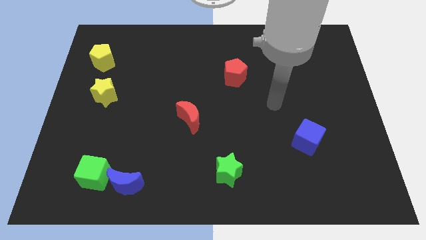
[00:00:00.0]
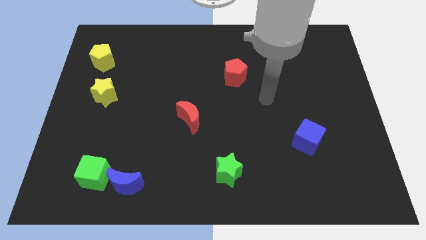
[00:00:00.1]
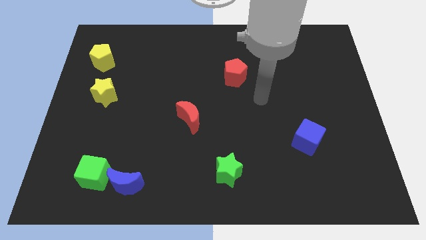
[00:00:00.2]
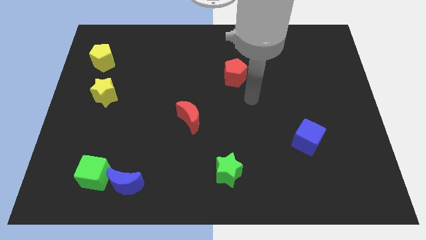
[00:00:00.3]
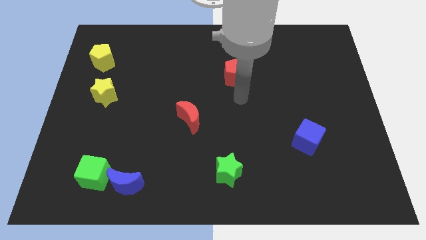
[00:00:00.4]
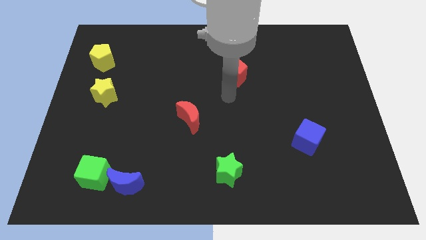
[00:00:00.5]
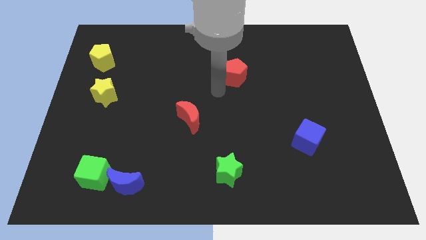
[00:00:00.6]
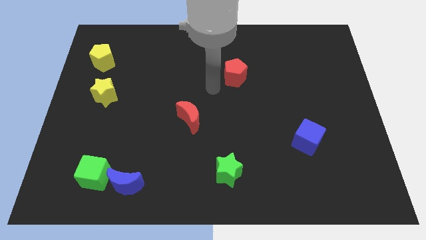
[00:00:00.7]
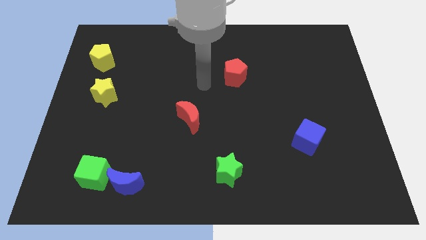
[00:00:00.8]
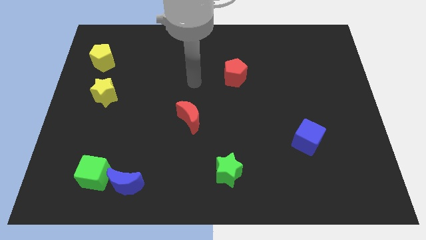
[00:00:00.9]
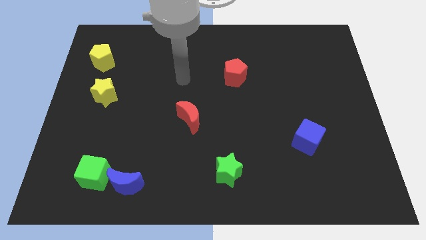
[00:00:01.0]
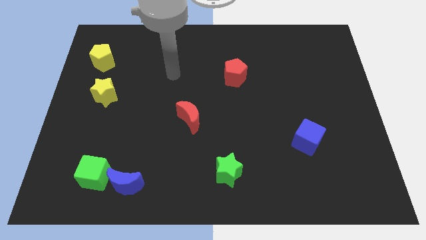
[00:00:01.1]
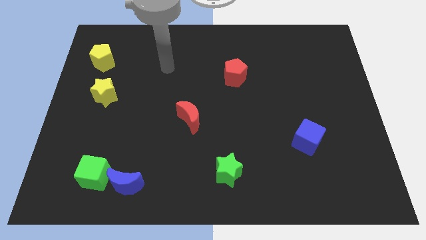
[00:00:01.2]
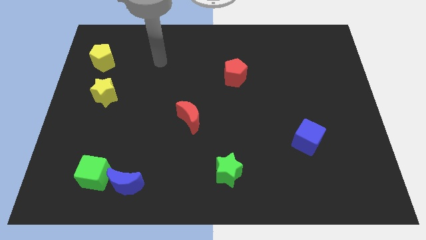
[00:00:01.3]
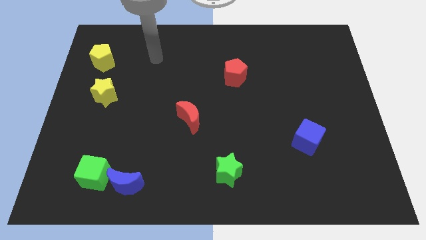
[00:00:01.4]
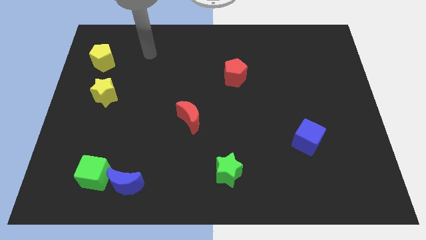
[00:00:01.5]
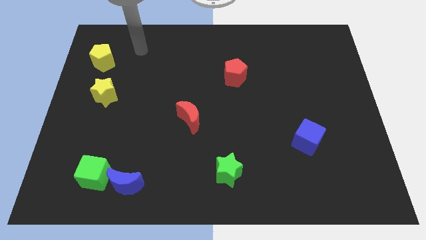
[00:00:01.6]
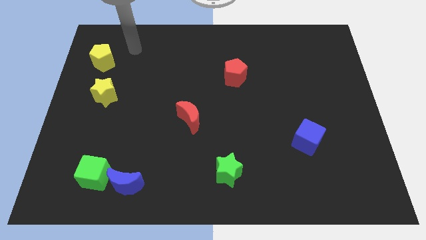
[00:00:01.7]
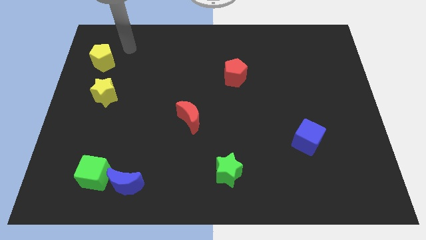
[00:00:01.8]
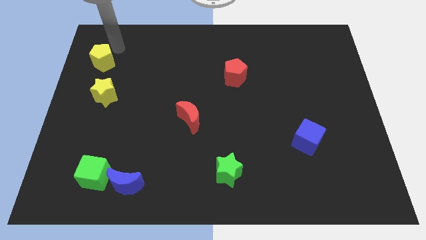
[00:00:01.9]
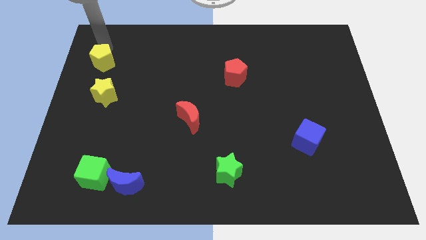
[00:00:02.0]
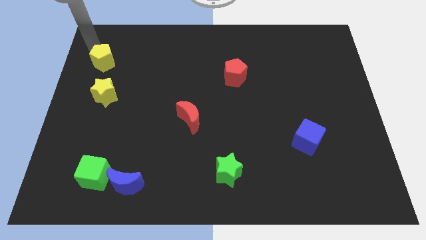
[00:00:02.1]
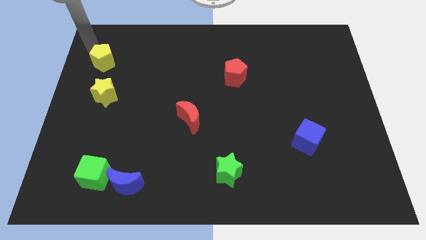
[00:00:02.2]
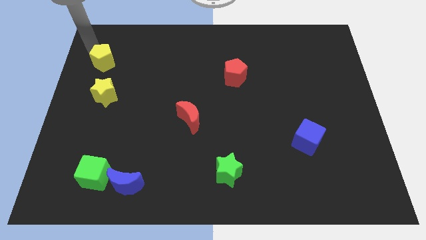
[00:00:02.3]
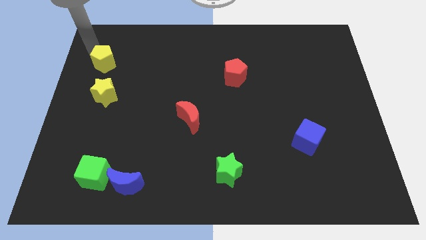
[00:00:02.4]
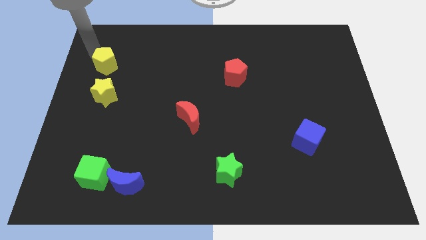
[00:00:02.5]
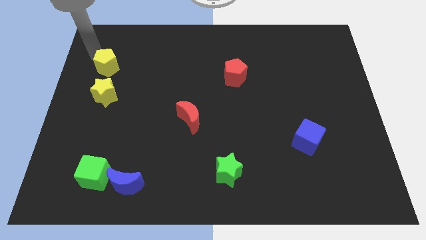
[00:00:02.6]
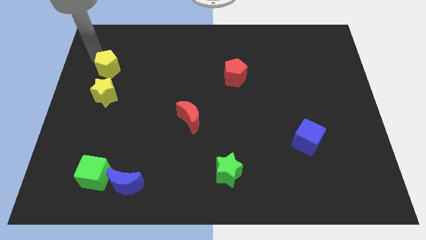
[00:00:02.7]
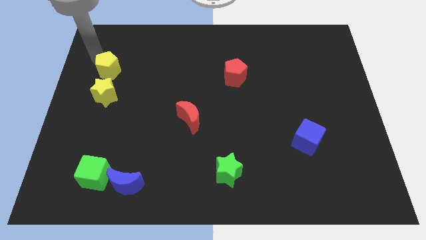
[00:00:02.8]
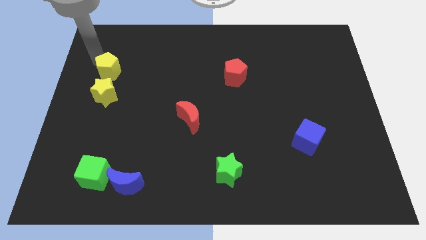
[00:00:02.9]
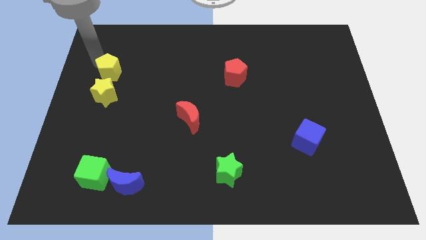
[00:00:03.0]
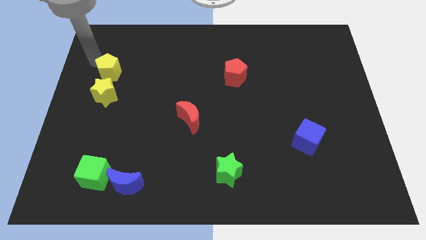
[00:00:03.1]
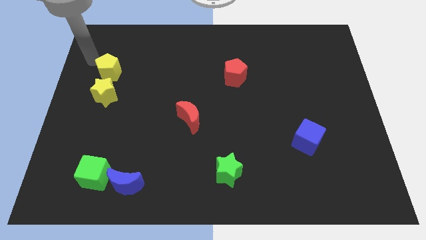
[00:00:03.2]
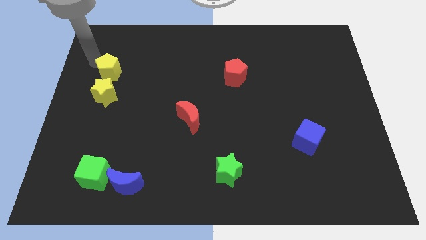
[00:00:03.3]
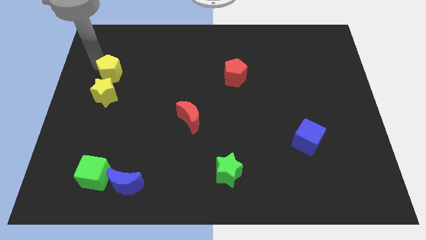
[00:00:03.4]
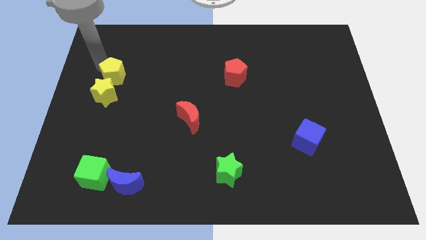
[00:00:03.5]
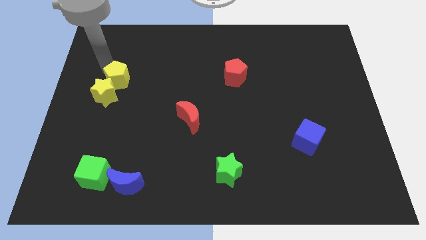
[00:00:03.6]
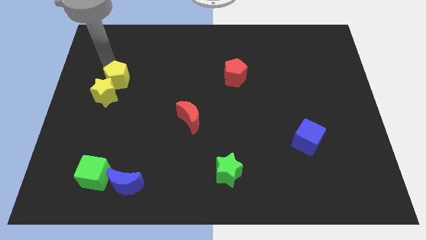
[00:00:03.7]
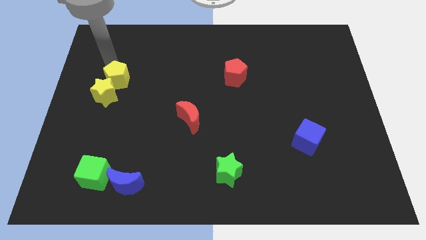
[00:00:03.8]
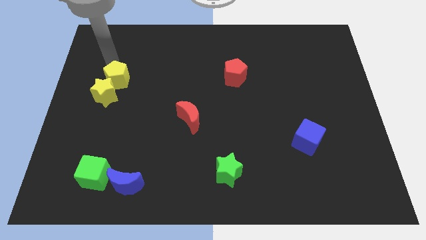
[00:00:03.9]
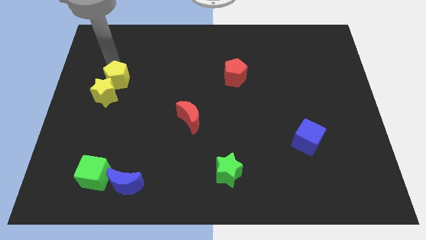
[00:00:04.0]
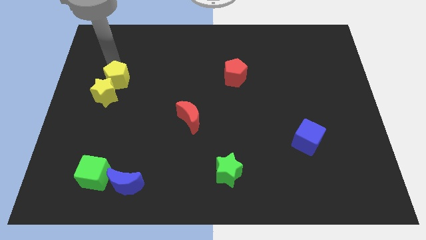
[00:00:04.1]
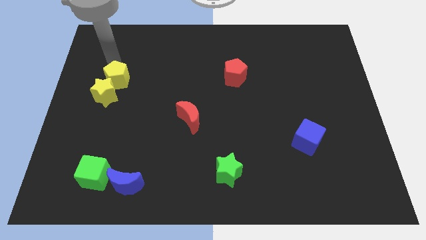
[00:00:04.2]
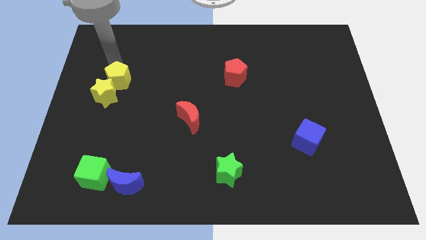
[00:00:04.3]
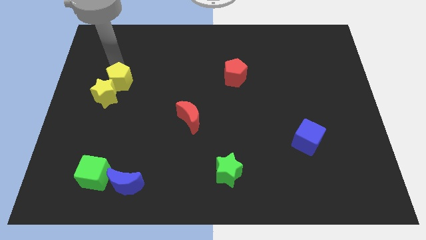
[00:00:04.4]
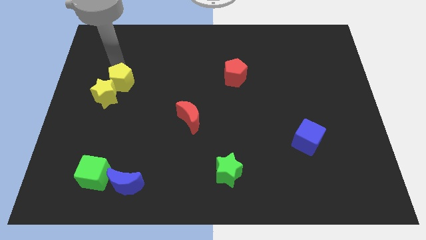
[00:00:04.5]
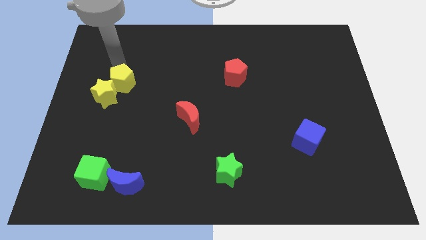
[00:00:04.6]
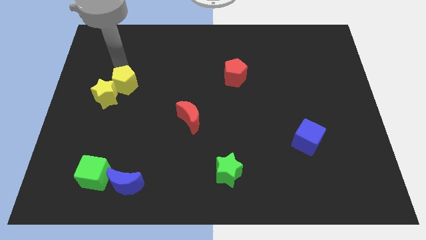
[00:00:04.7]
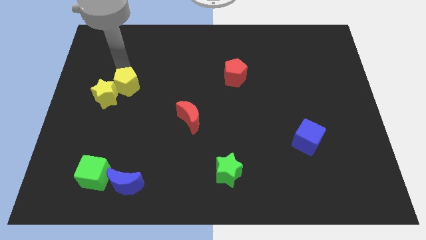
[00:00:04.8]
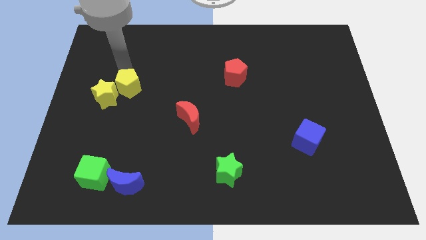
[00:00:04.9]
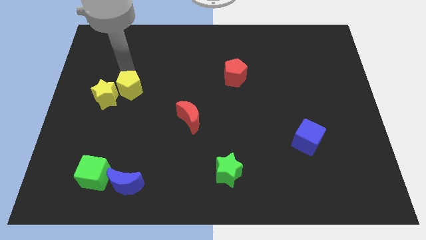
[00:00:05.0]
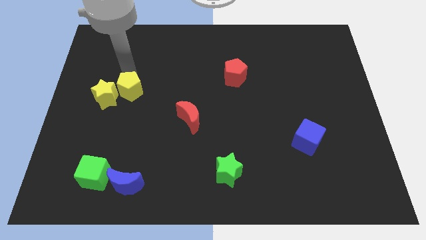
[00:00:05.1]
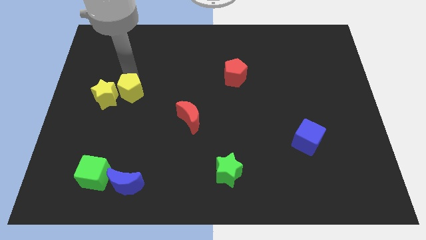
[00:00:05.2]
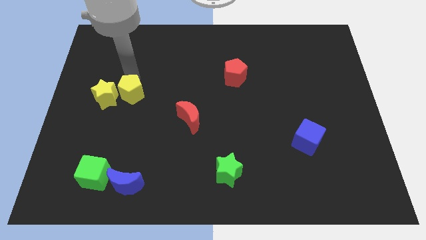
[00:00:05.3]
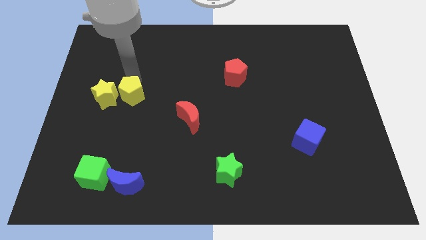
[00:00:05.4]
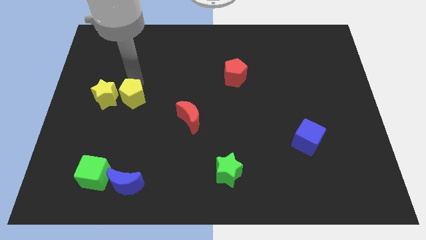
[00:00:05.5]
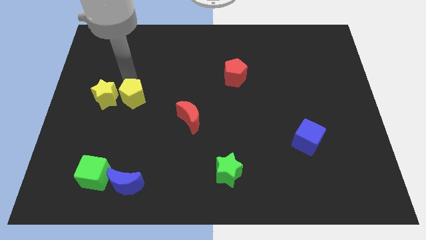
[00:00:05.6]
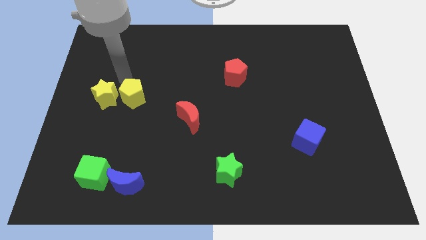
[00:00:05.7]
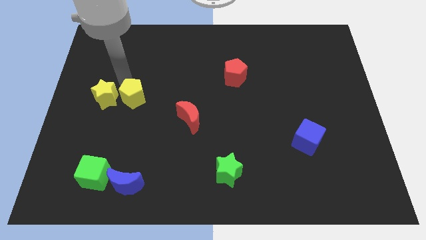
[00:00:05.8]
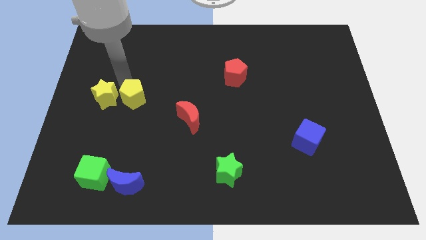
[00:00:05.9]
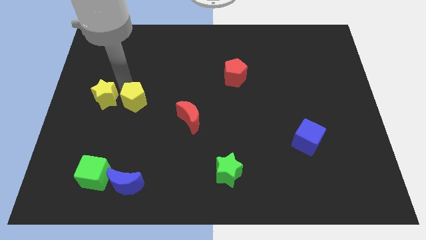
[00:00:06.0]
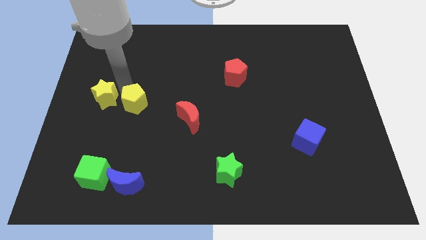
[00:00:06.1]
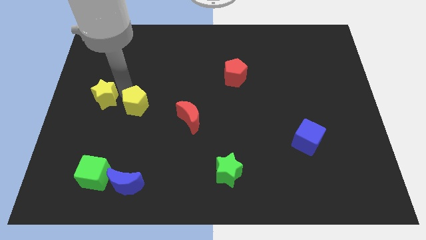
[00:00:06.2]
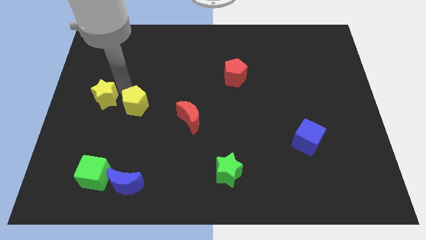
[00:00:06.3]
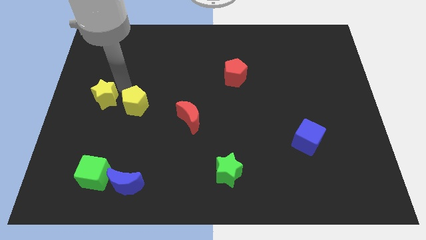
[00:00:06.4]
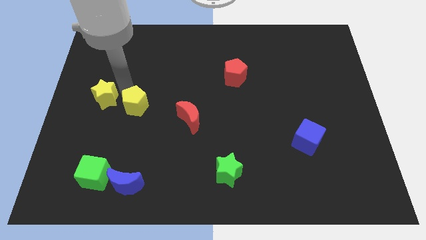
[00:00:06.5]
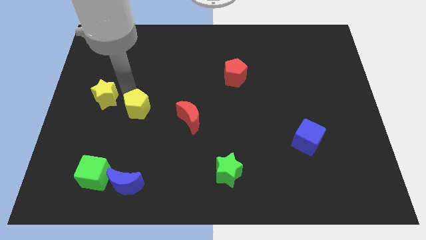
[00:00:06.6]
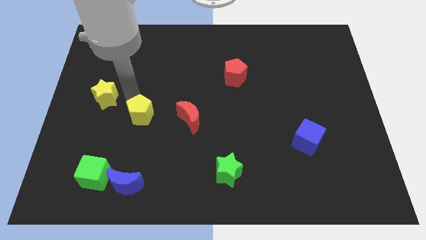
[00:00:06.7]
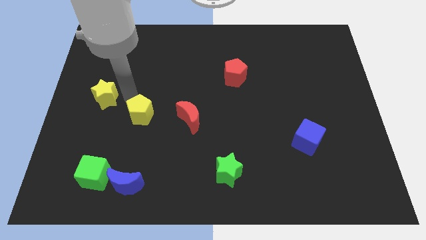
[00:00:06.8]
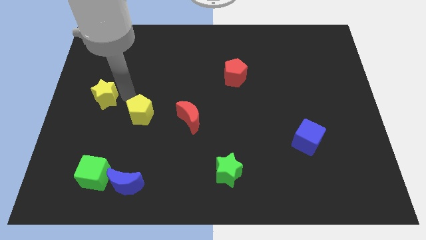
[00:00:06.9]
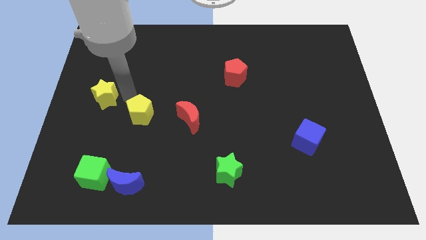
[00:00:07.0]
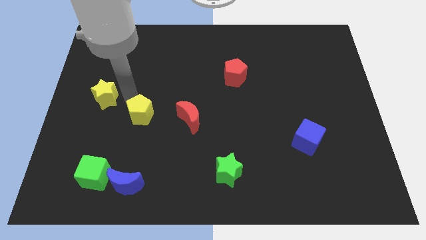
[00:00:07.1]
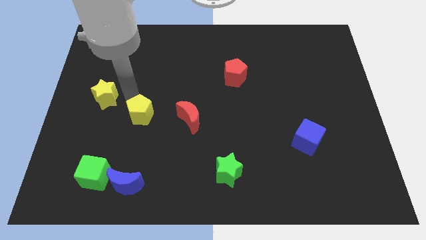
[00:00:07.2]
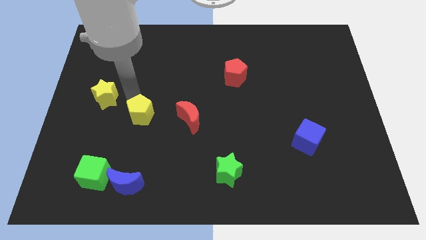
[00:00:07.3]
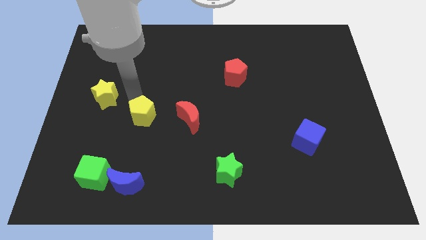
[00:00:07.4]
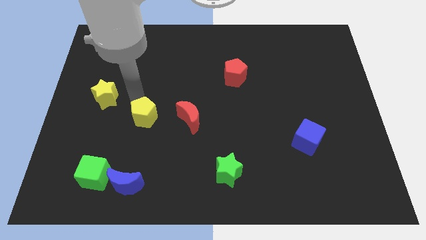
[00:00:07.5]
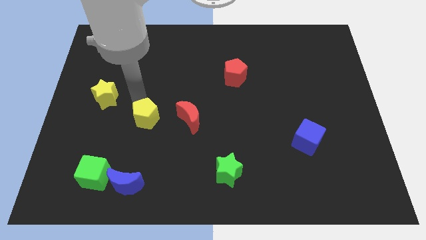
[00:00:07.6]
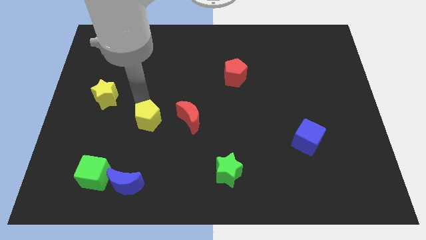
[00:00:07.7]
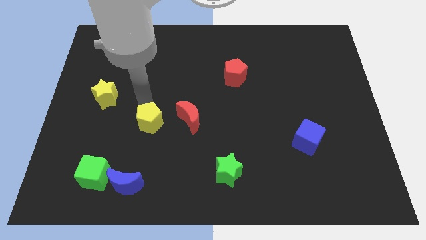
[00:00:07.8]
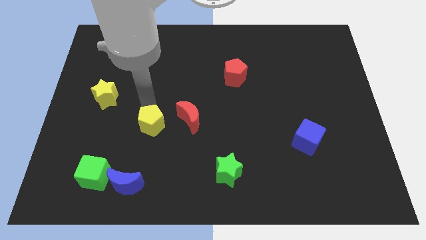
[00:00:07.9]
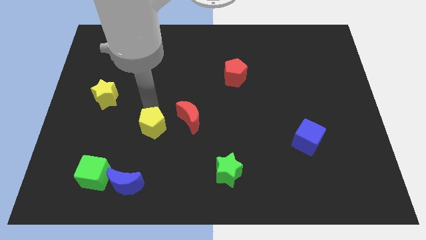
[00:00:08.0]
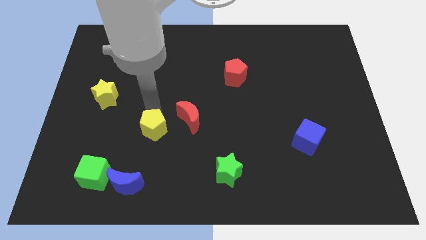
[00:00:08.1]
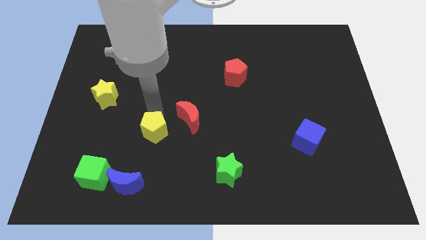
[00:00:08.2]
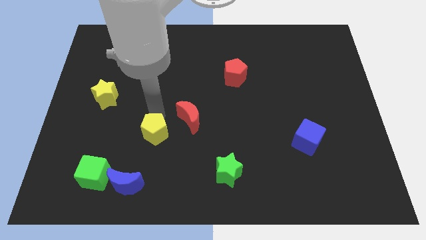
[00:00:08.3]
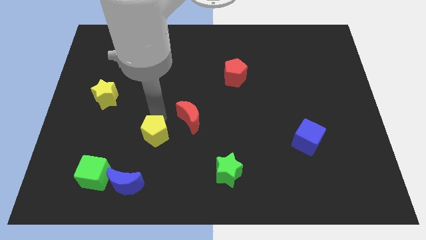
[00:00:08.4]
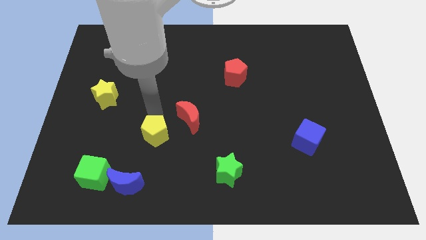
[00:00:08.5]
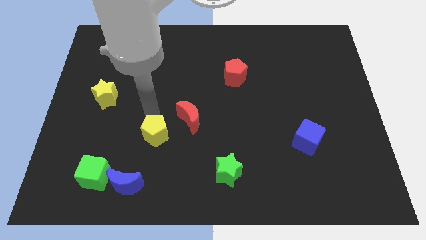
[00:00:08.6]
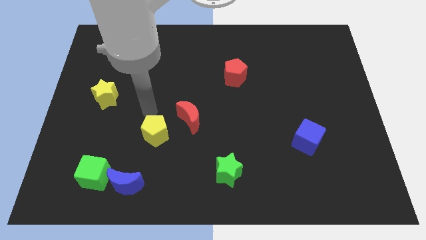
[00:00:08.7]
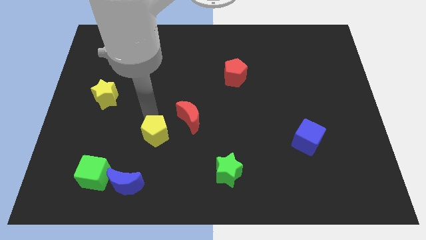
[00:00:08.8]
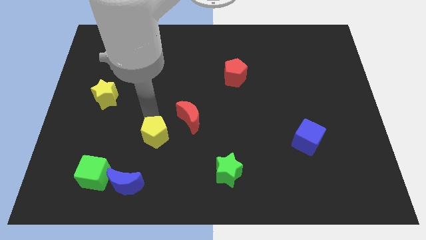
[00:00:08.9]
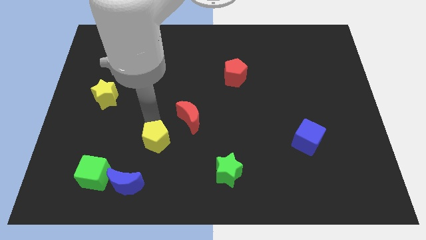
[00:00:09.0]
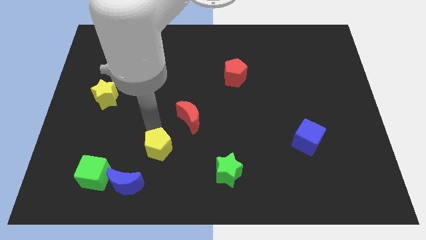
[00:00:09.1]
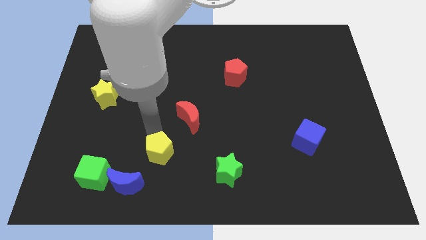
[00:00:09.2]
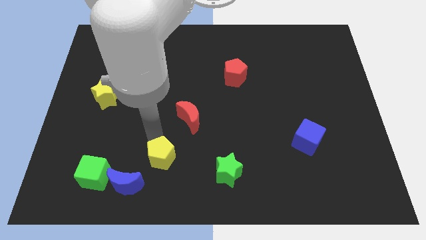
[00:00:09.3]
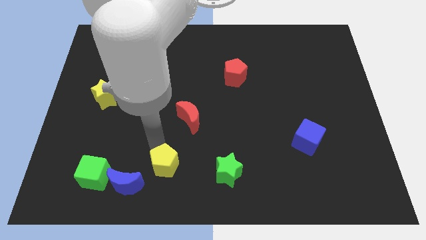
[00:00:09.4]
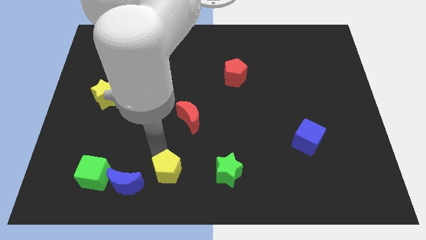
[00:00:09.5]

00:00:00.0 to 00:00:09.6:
put the yellow pentagon to the bottom
